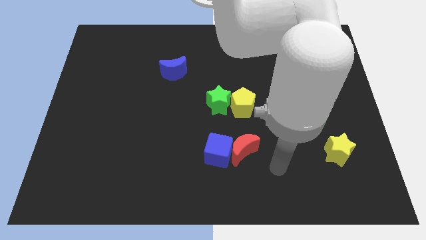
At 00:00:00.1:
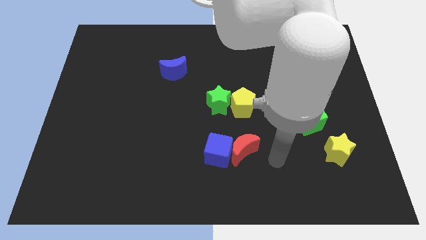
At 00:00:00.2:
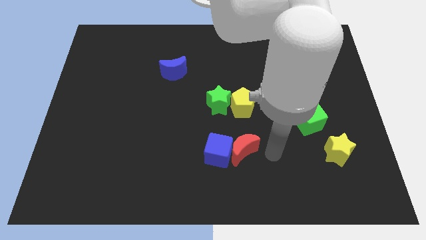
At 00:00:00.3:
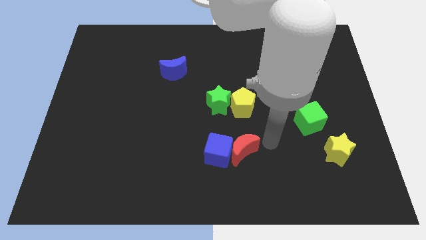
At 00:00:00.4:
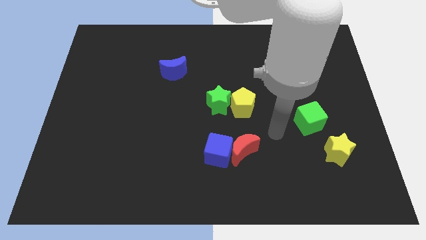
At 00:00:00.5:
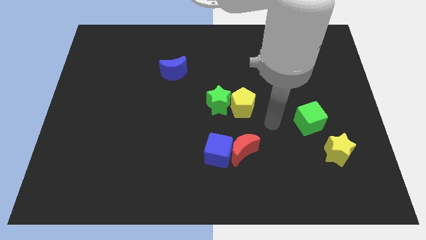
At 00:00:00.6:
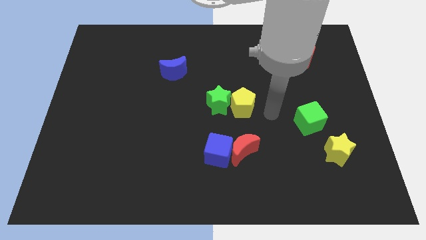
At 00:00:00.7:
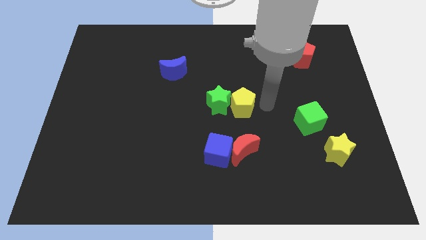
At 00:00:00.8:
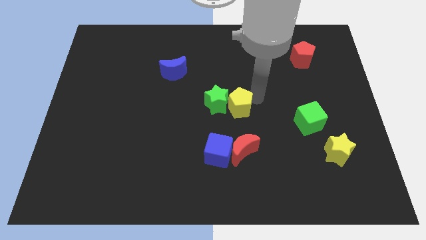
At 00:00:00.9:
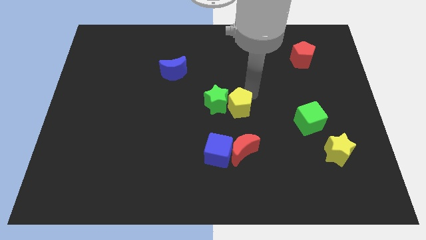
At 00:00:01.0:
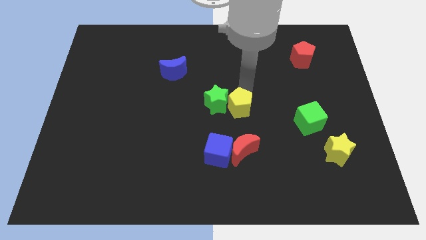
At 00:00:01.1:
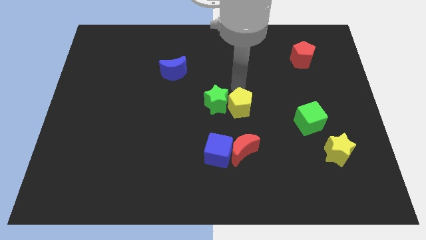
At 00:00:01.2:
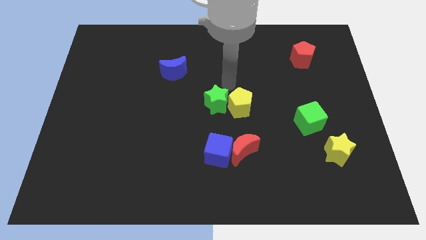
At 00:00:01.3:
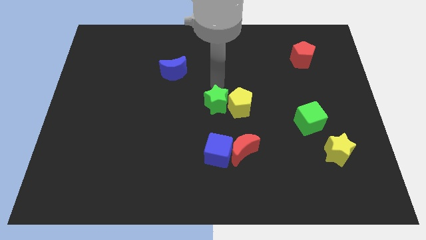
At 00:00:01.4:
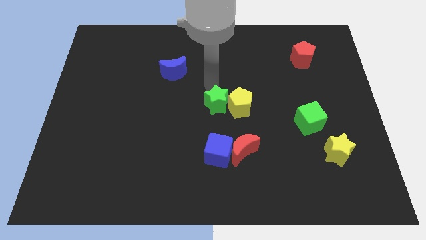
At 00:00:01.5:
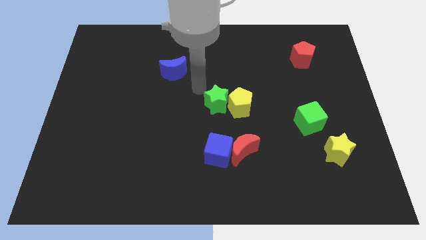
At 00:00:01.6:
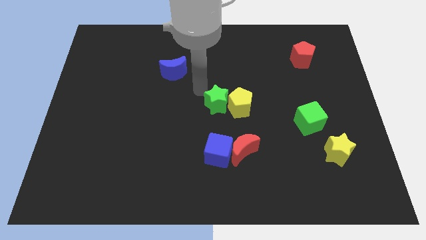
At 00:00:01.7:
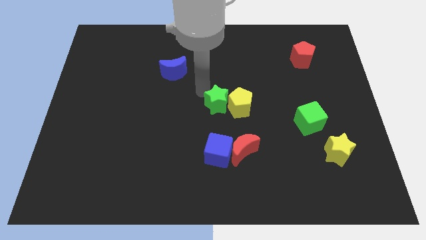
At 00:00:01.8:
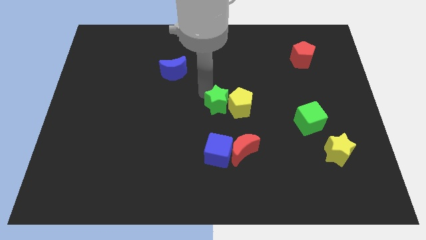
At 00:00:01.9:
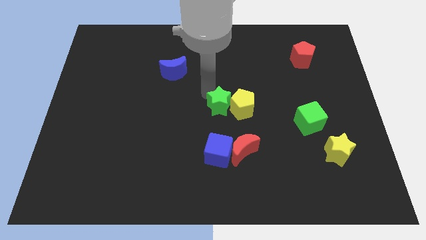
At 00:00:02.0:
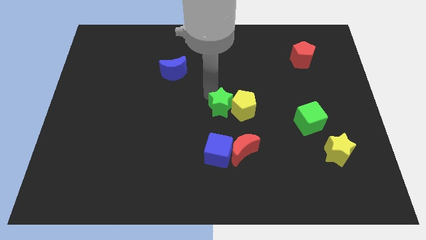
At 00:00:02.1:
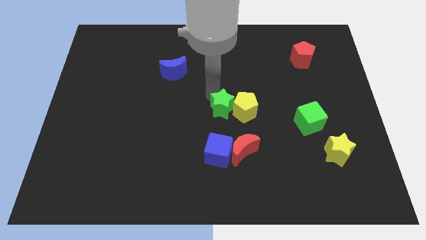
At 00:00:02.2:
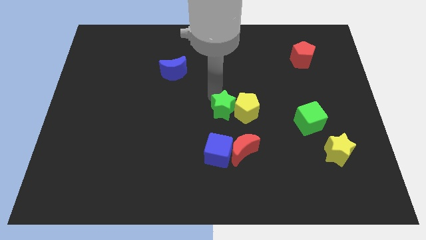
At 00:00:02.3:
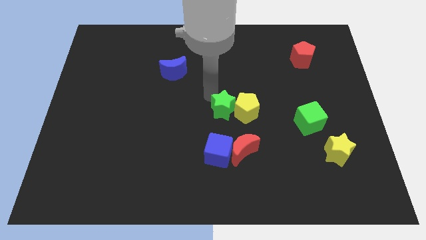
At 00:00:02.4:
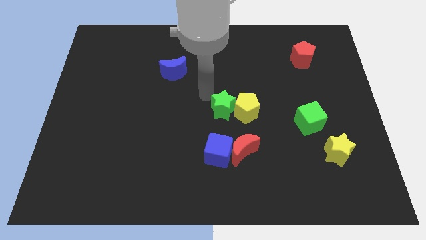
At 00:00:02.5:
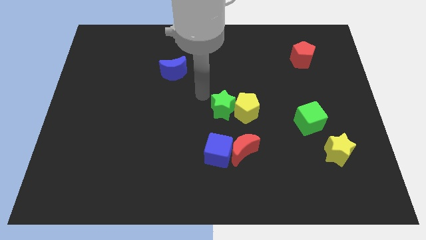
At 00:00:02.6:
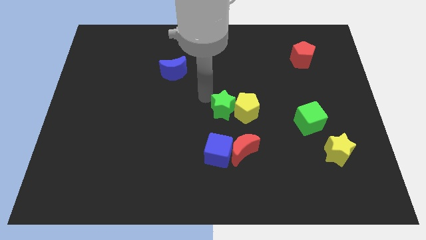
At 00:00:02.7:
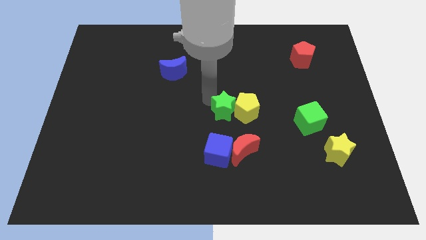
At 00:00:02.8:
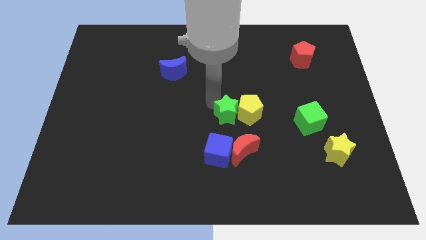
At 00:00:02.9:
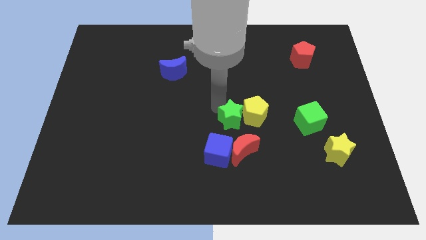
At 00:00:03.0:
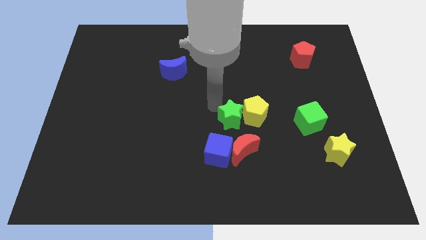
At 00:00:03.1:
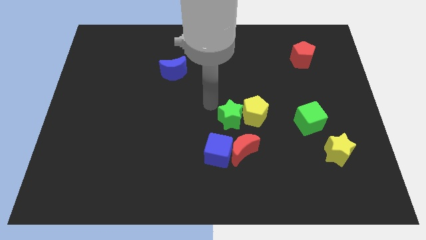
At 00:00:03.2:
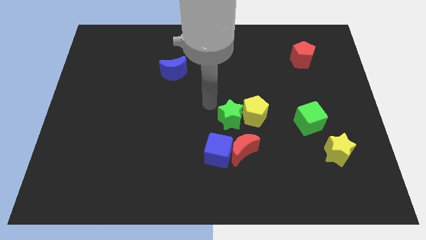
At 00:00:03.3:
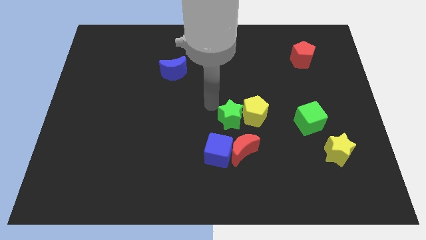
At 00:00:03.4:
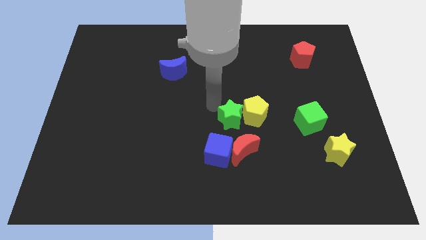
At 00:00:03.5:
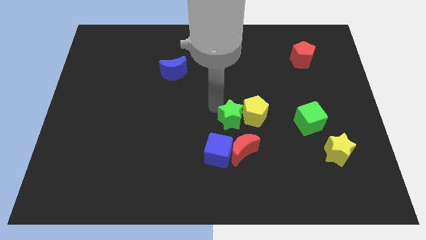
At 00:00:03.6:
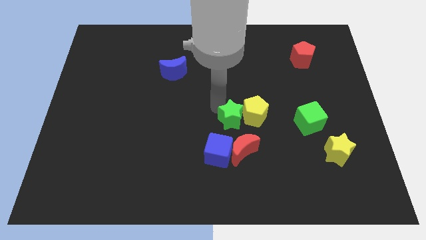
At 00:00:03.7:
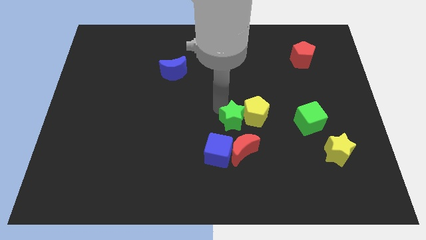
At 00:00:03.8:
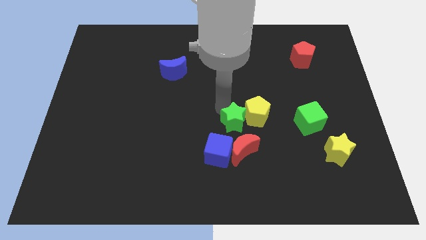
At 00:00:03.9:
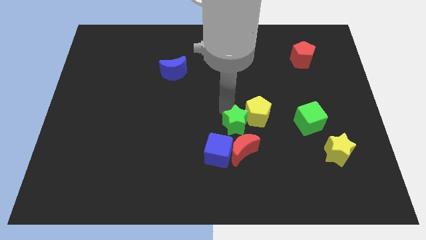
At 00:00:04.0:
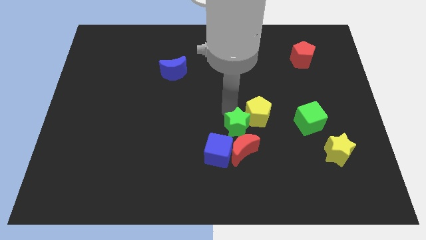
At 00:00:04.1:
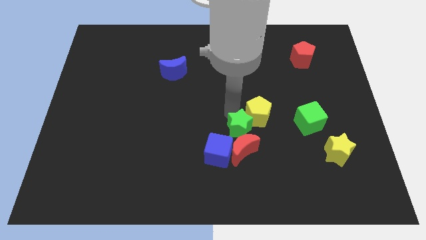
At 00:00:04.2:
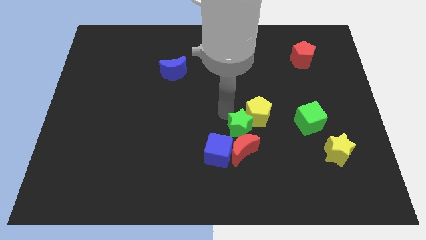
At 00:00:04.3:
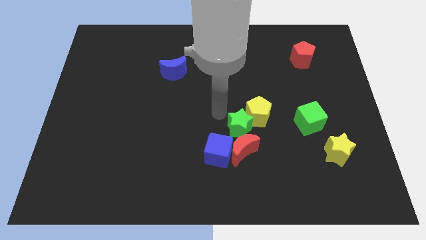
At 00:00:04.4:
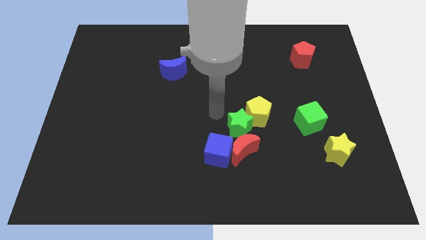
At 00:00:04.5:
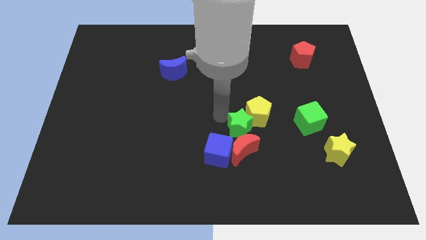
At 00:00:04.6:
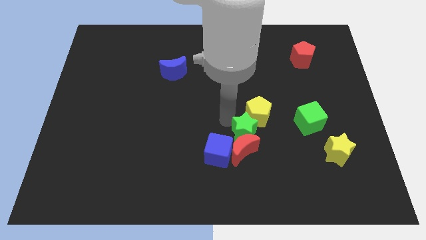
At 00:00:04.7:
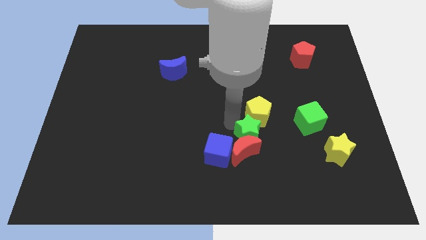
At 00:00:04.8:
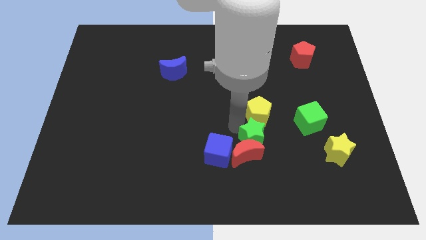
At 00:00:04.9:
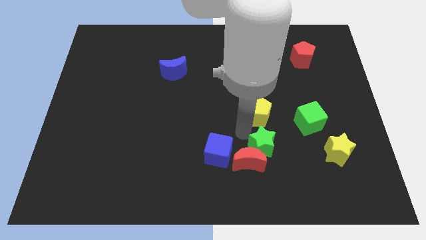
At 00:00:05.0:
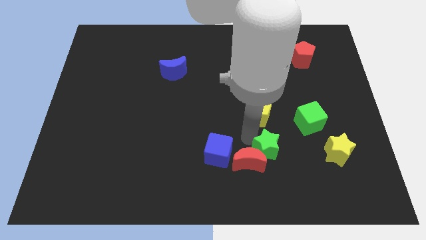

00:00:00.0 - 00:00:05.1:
move the green star to the left of the yellow star

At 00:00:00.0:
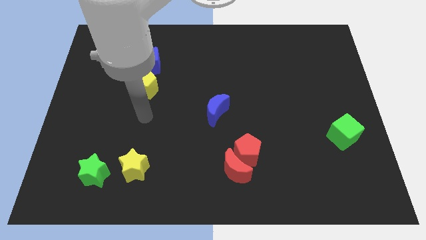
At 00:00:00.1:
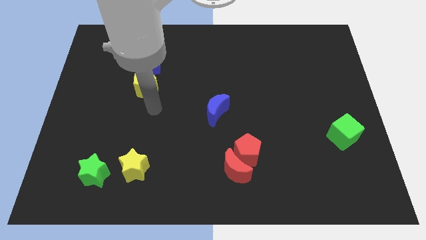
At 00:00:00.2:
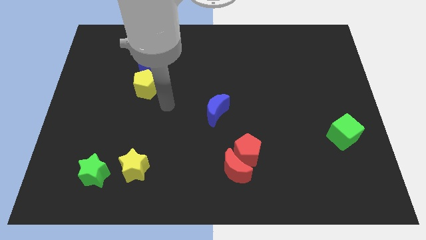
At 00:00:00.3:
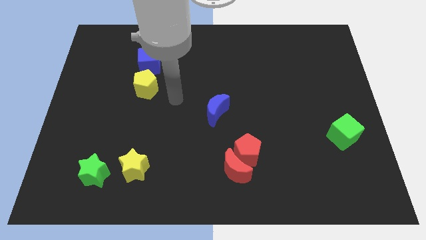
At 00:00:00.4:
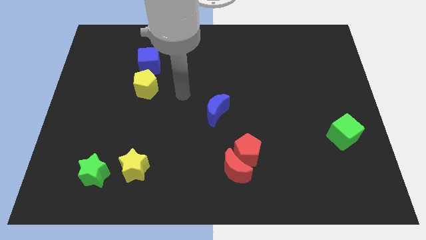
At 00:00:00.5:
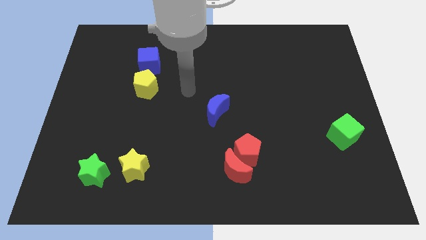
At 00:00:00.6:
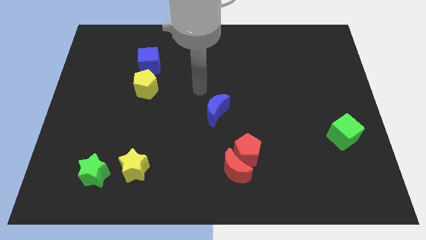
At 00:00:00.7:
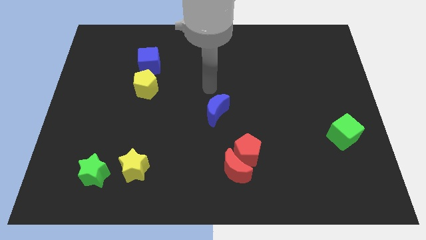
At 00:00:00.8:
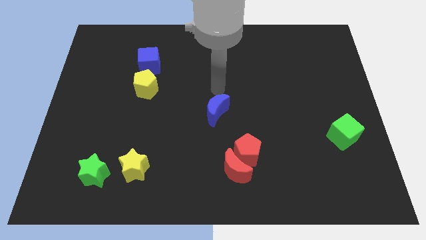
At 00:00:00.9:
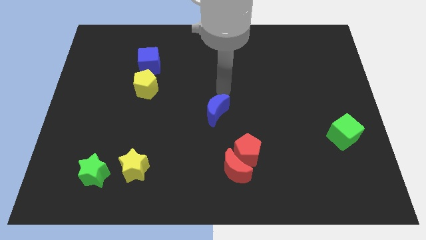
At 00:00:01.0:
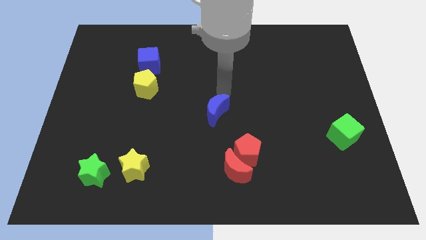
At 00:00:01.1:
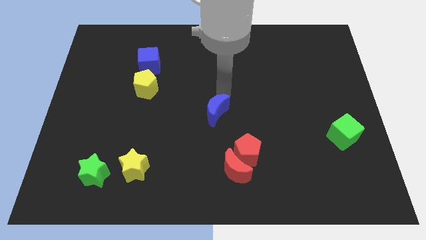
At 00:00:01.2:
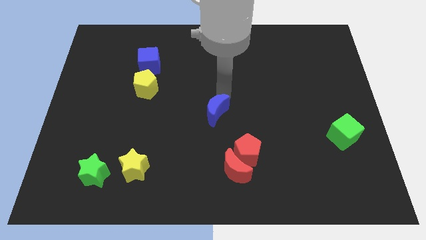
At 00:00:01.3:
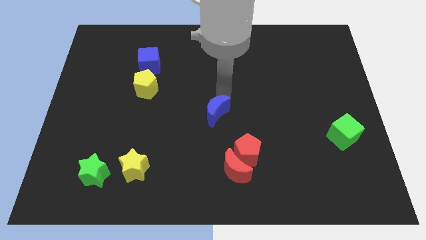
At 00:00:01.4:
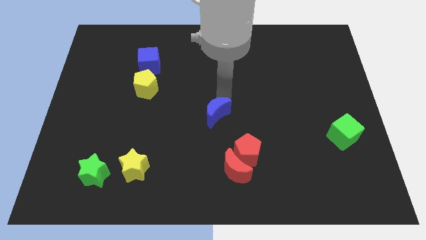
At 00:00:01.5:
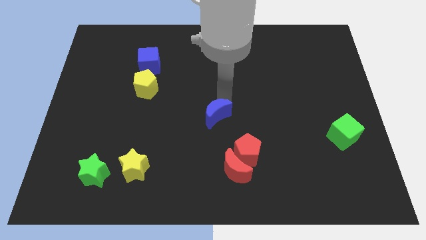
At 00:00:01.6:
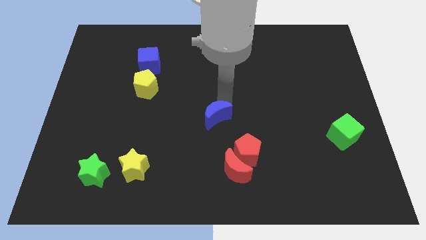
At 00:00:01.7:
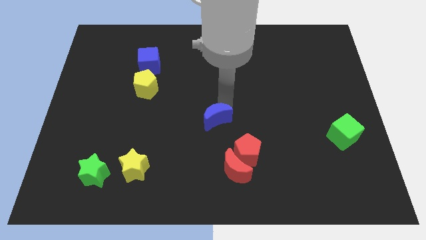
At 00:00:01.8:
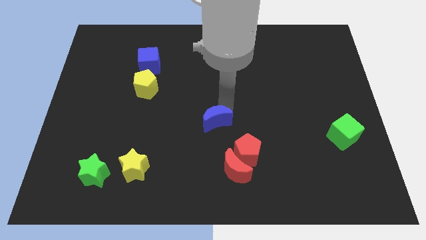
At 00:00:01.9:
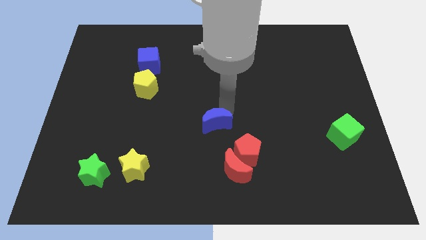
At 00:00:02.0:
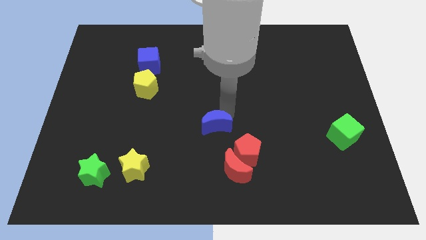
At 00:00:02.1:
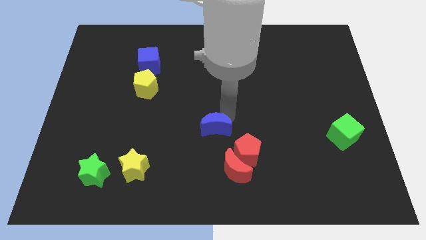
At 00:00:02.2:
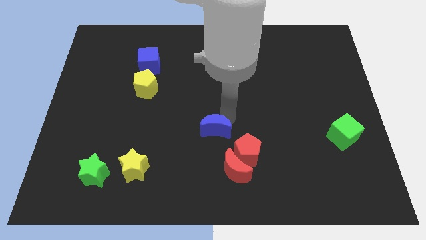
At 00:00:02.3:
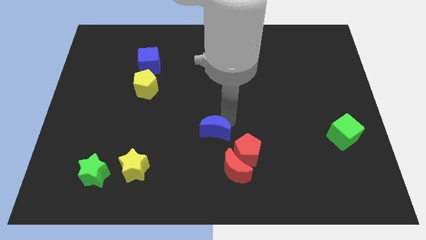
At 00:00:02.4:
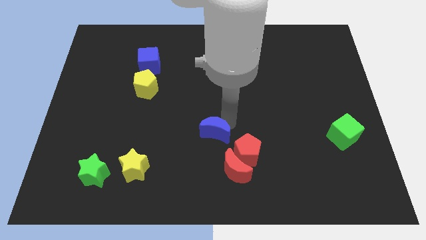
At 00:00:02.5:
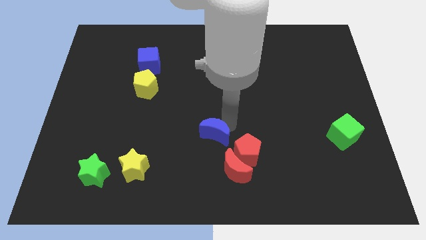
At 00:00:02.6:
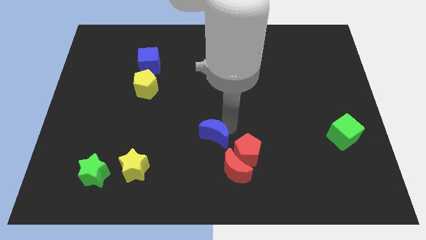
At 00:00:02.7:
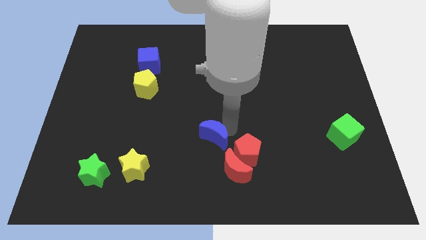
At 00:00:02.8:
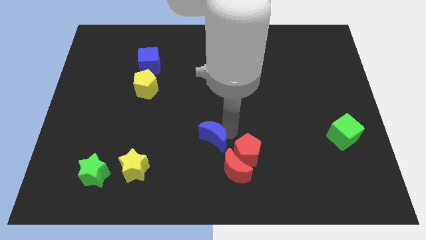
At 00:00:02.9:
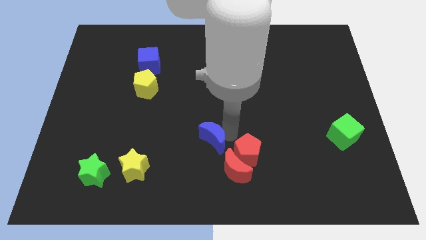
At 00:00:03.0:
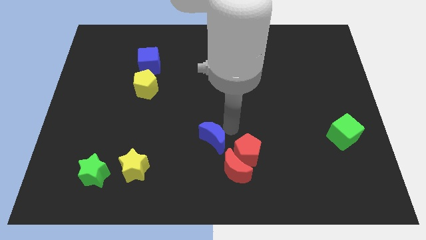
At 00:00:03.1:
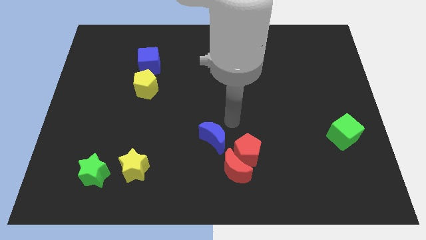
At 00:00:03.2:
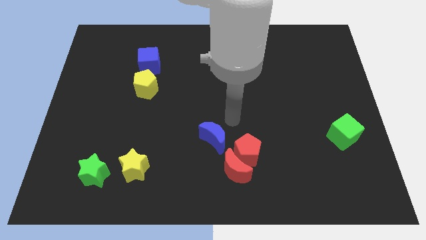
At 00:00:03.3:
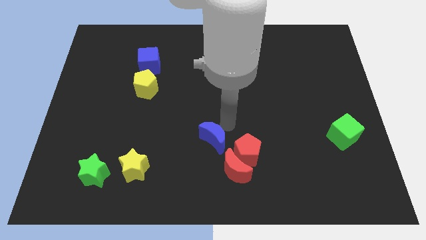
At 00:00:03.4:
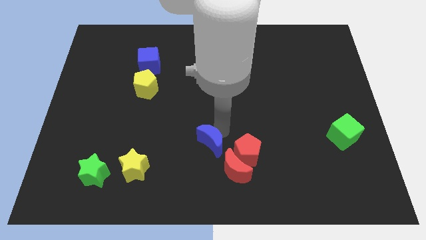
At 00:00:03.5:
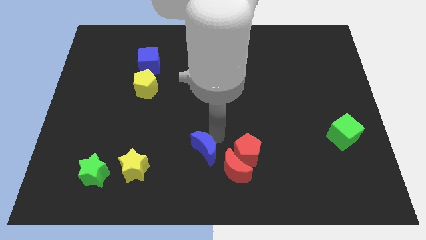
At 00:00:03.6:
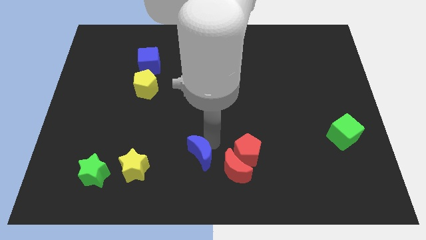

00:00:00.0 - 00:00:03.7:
slide the blue moon to the right of the yellow star
